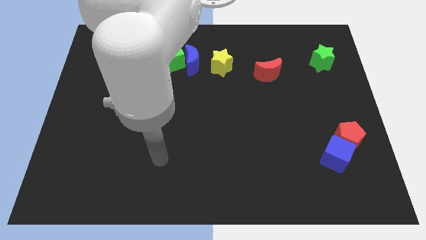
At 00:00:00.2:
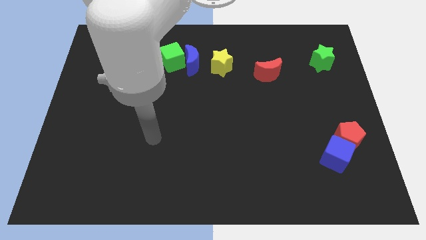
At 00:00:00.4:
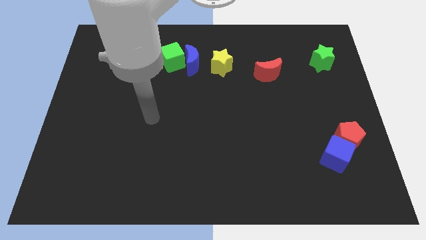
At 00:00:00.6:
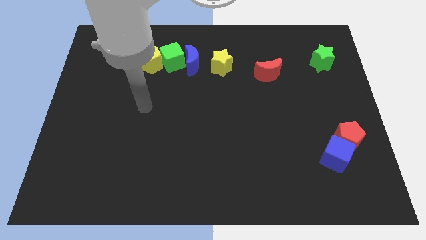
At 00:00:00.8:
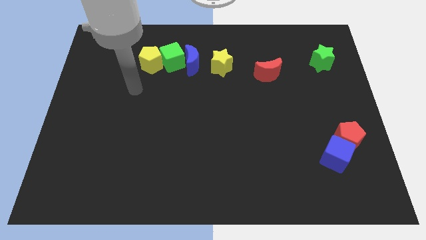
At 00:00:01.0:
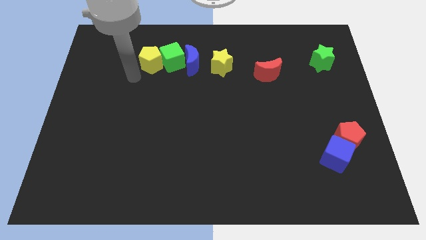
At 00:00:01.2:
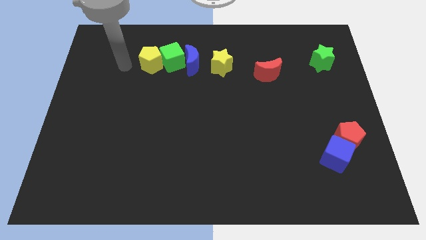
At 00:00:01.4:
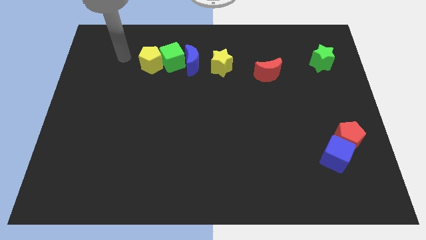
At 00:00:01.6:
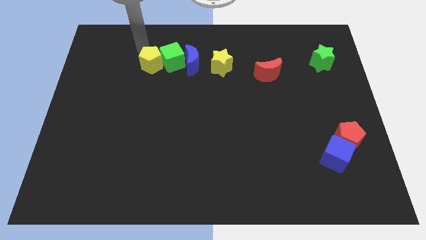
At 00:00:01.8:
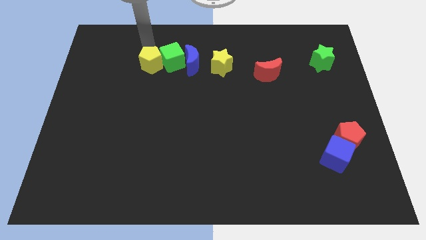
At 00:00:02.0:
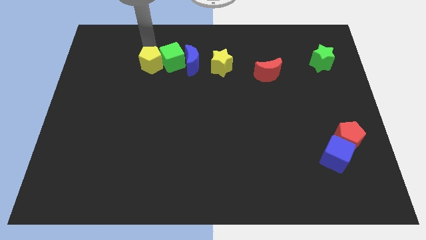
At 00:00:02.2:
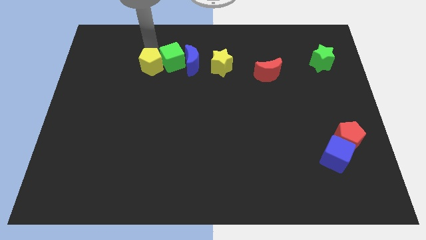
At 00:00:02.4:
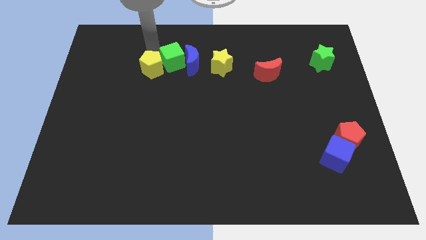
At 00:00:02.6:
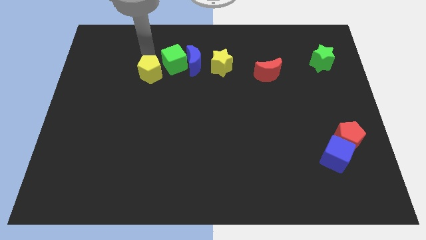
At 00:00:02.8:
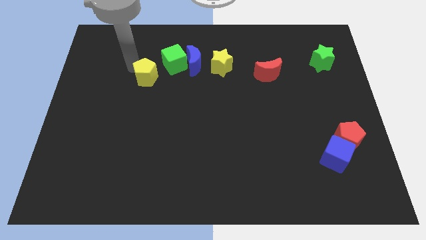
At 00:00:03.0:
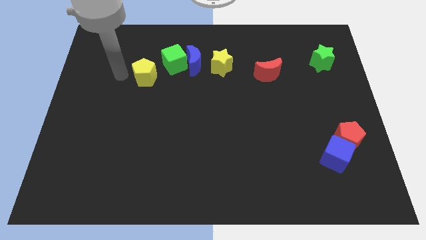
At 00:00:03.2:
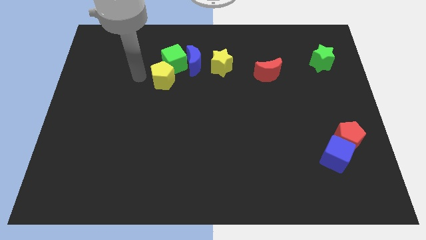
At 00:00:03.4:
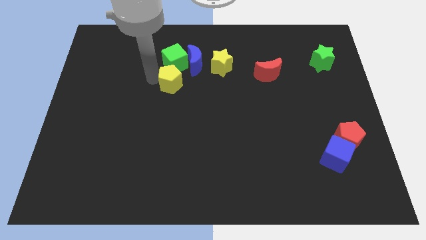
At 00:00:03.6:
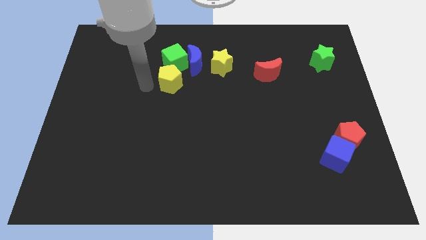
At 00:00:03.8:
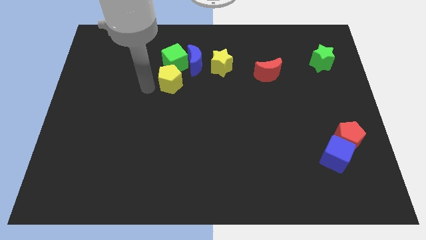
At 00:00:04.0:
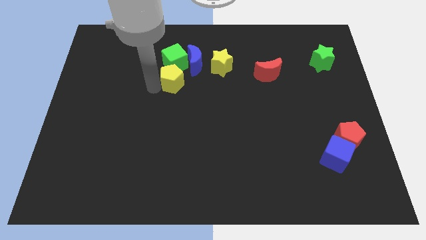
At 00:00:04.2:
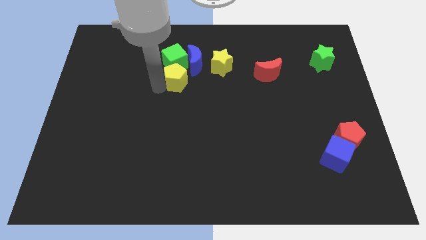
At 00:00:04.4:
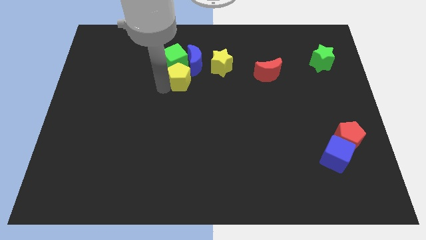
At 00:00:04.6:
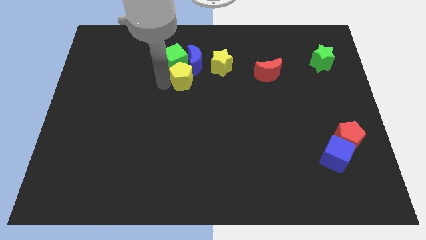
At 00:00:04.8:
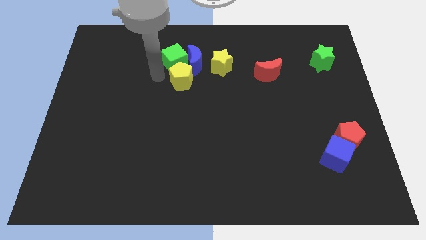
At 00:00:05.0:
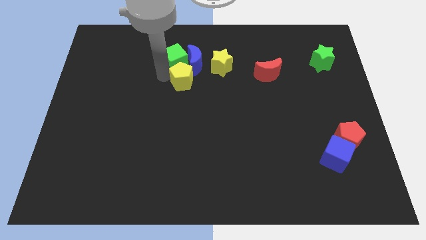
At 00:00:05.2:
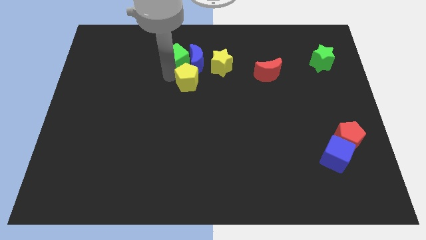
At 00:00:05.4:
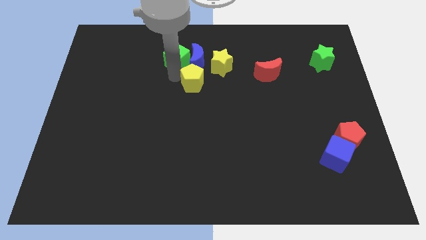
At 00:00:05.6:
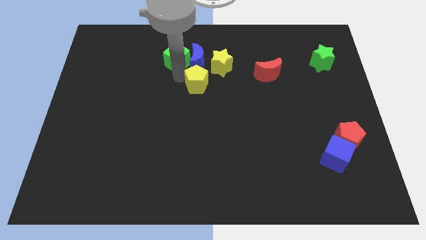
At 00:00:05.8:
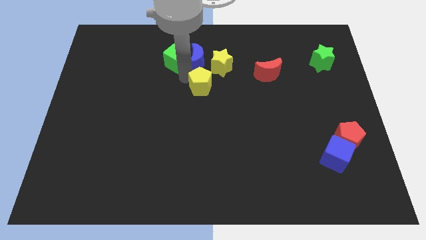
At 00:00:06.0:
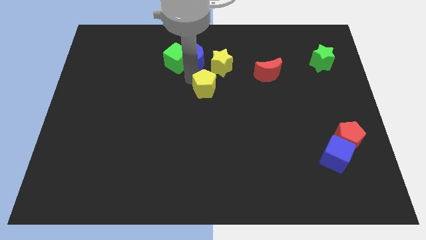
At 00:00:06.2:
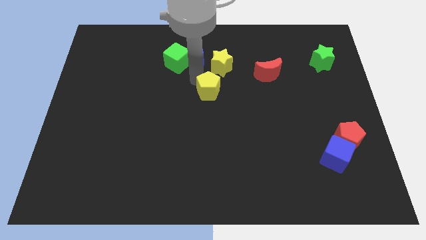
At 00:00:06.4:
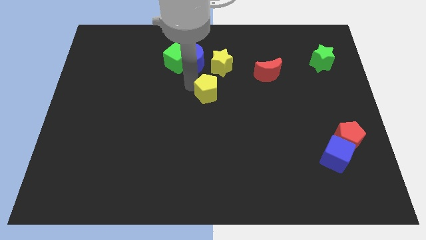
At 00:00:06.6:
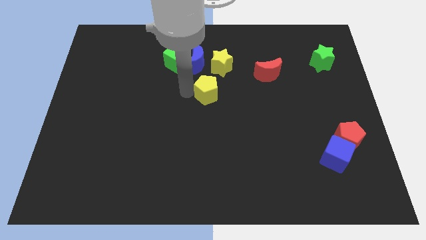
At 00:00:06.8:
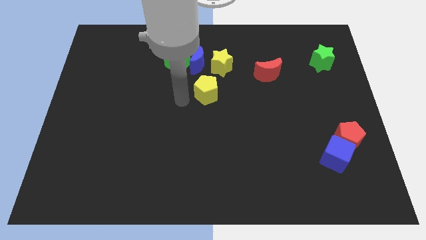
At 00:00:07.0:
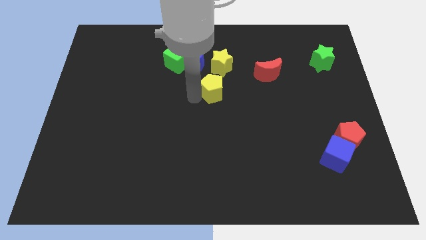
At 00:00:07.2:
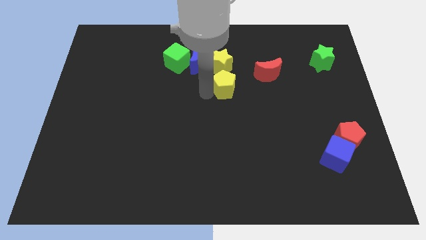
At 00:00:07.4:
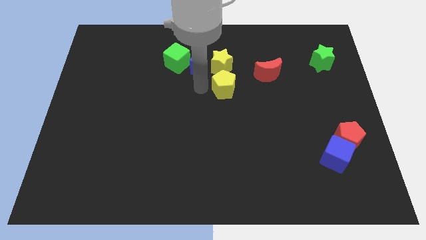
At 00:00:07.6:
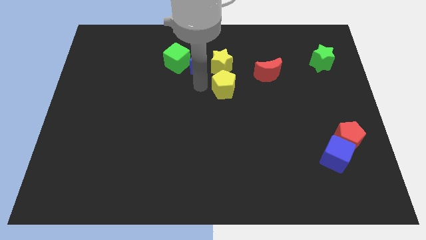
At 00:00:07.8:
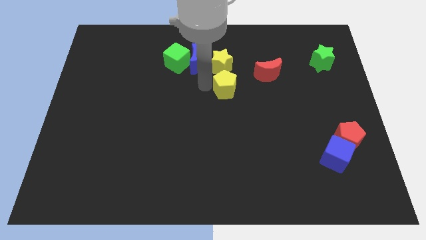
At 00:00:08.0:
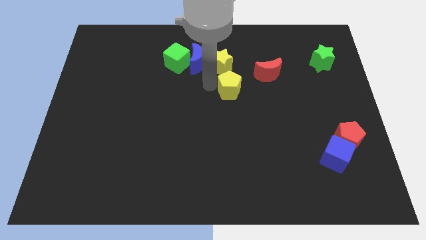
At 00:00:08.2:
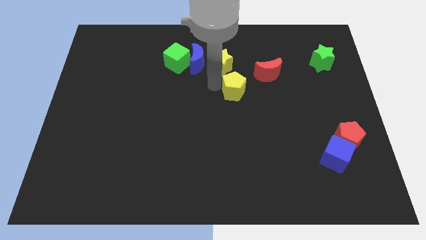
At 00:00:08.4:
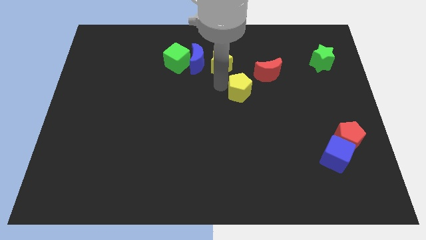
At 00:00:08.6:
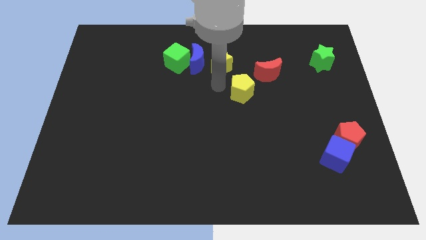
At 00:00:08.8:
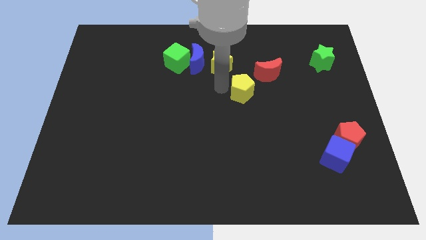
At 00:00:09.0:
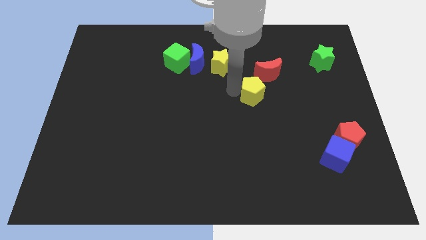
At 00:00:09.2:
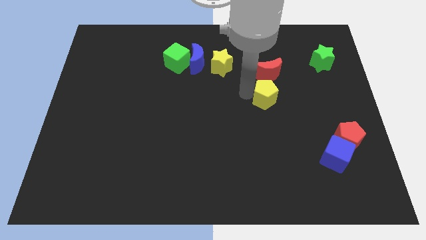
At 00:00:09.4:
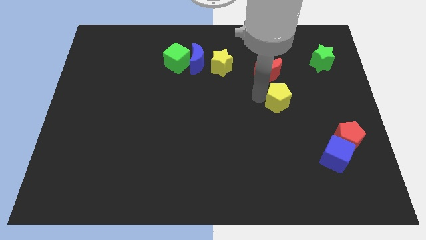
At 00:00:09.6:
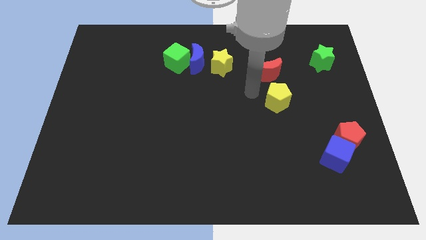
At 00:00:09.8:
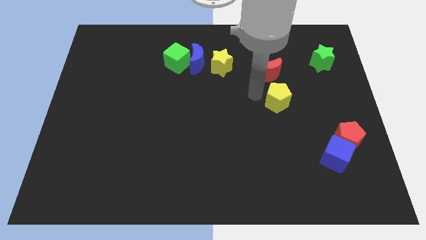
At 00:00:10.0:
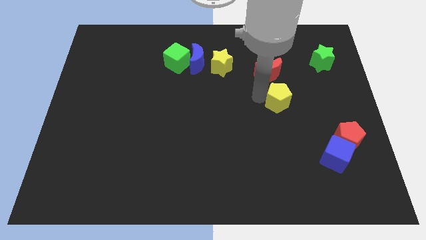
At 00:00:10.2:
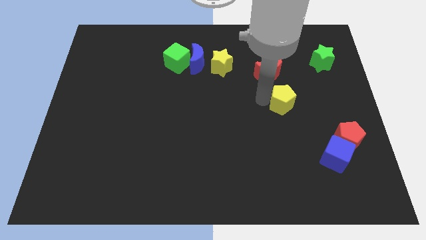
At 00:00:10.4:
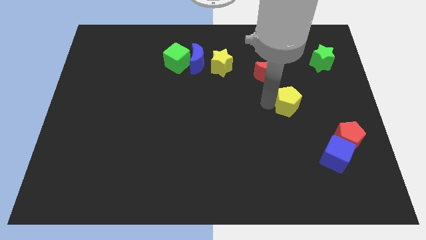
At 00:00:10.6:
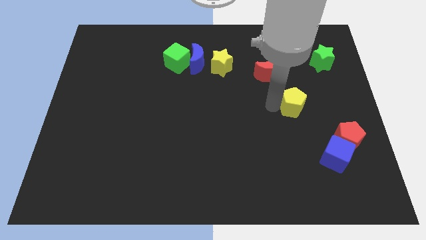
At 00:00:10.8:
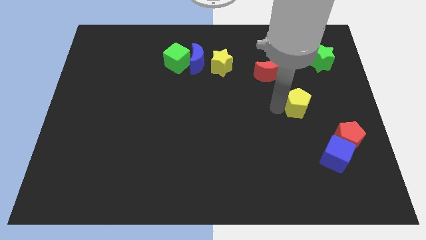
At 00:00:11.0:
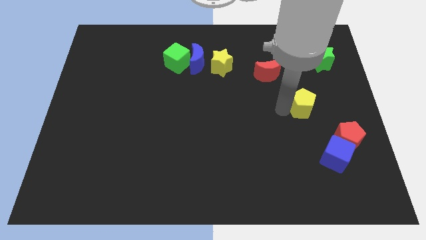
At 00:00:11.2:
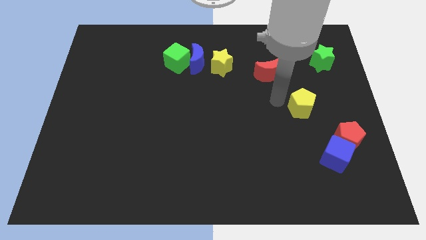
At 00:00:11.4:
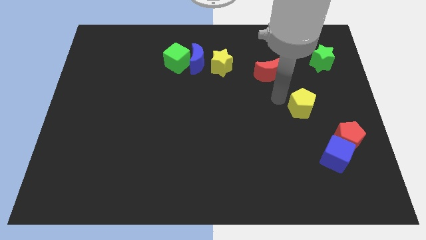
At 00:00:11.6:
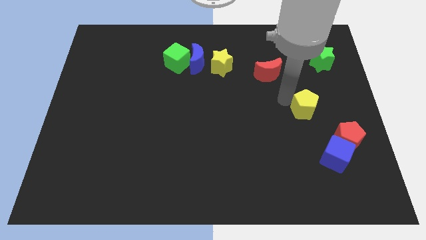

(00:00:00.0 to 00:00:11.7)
slide the yellow pentagon above the blue cube
